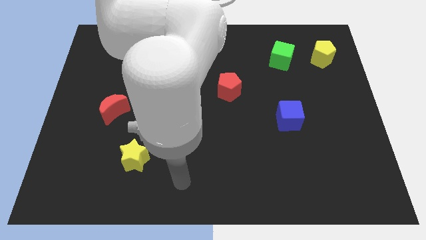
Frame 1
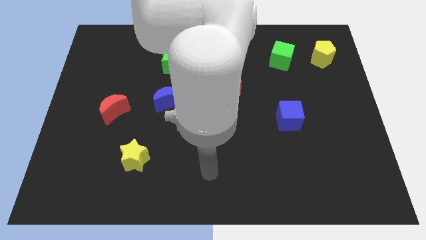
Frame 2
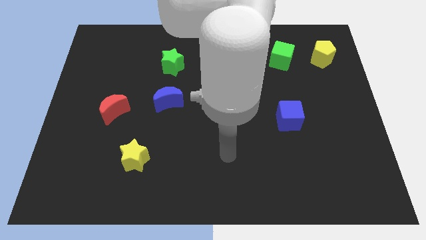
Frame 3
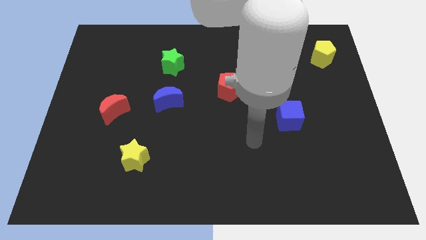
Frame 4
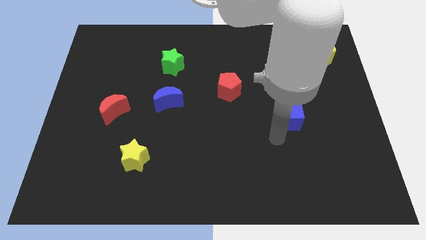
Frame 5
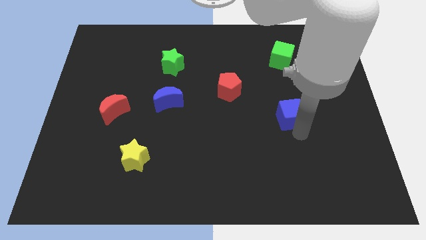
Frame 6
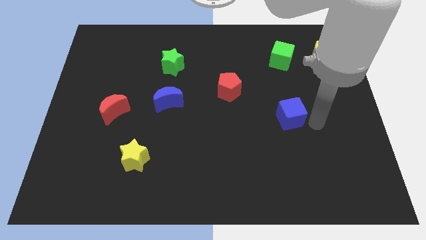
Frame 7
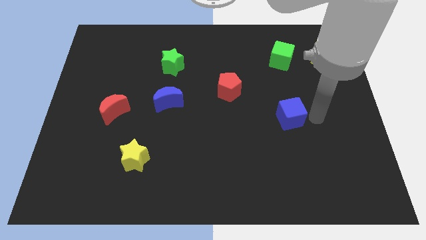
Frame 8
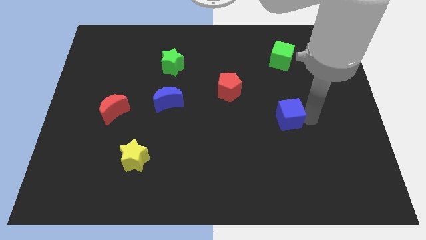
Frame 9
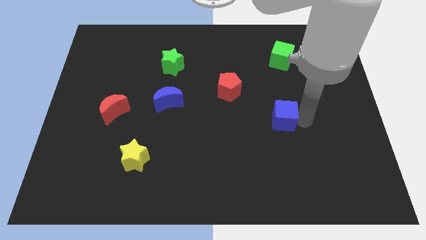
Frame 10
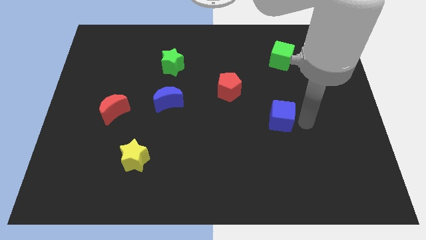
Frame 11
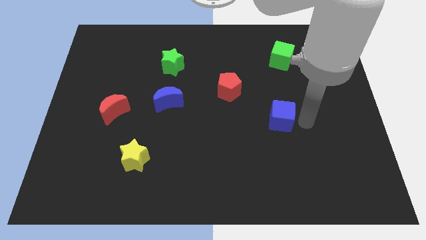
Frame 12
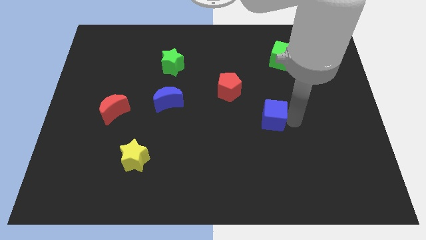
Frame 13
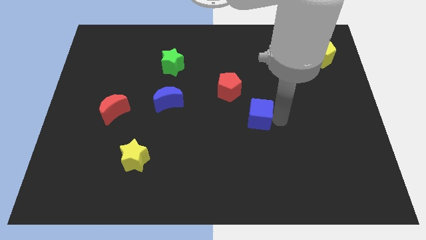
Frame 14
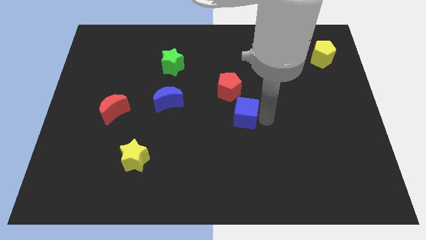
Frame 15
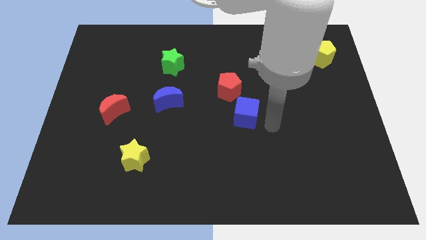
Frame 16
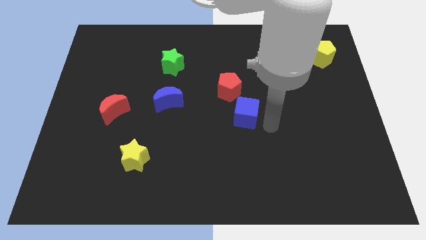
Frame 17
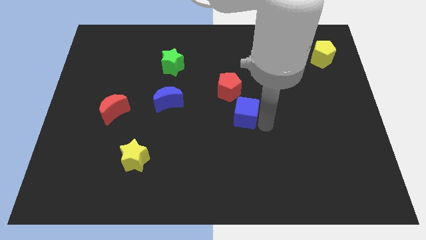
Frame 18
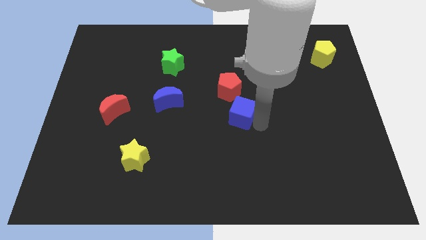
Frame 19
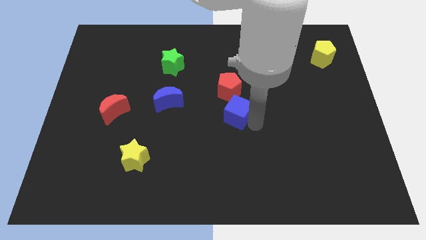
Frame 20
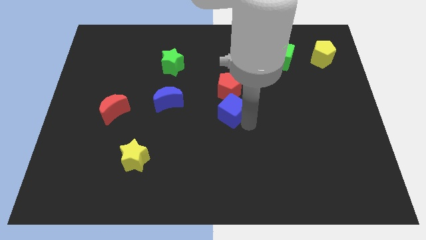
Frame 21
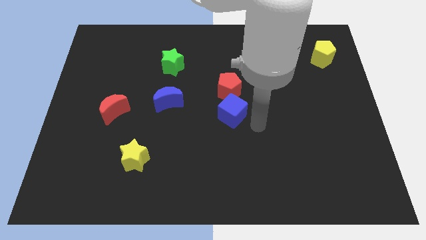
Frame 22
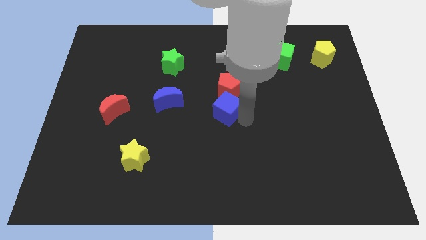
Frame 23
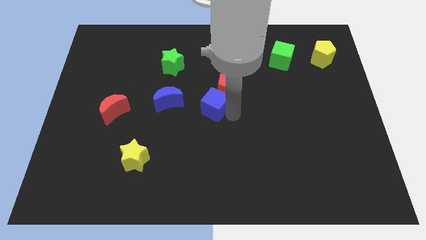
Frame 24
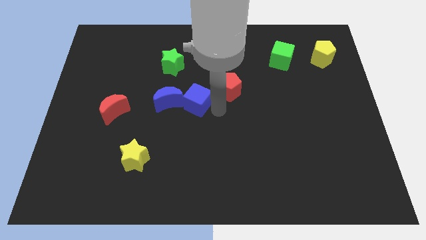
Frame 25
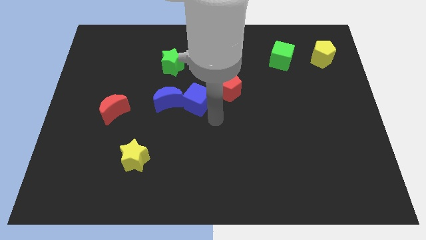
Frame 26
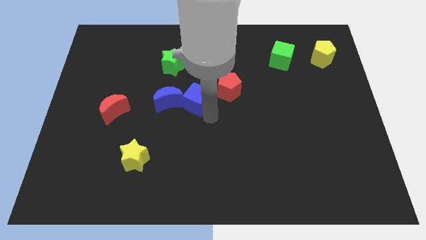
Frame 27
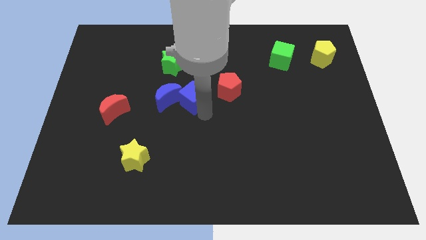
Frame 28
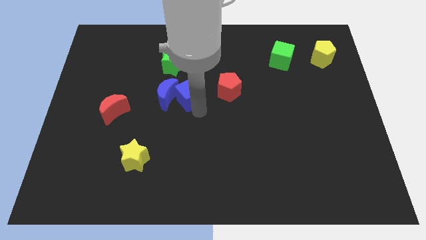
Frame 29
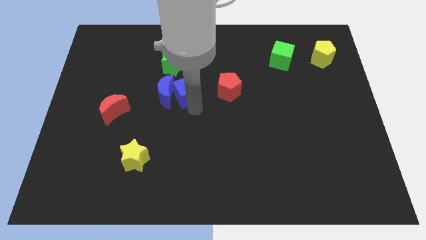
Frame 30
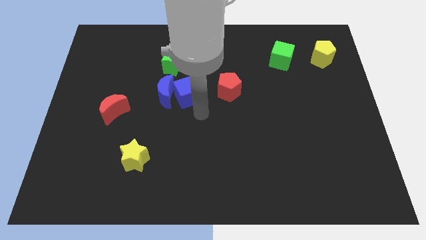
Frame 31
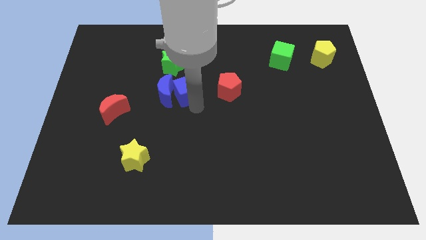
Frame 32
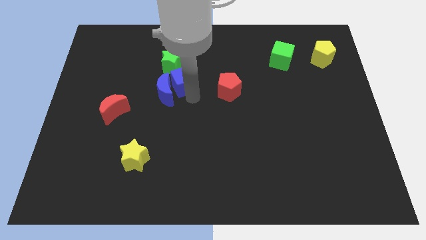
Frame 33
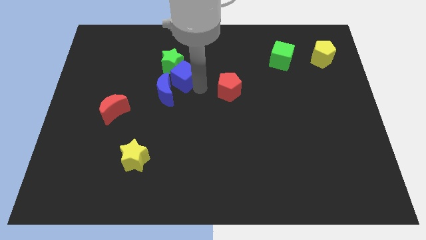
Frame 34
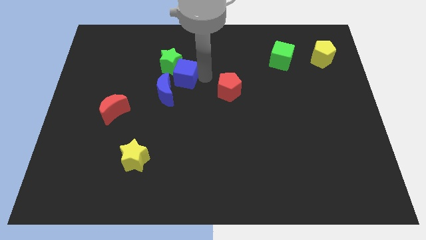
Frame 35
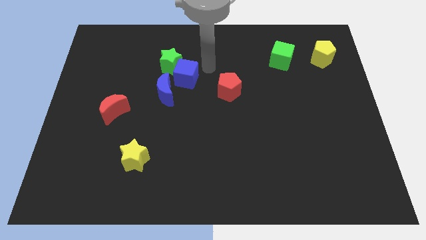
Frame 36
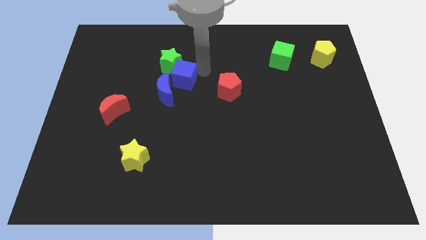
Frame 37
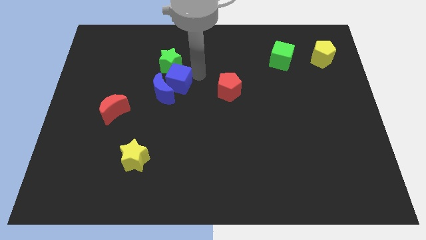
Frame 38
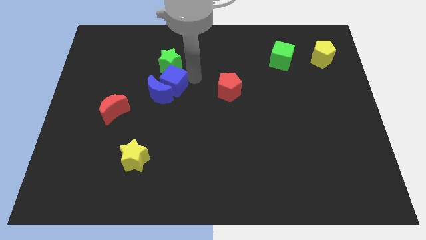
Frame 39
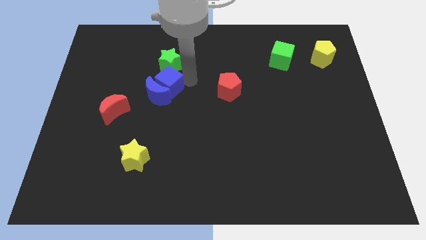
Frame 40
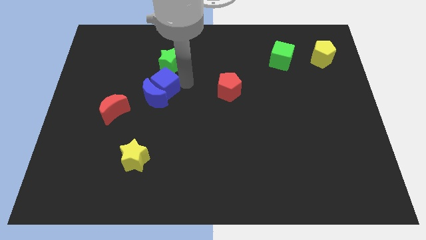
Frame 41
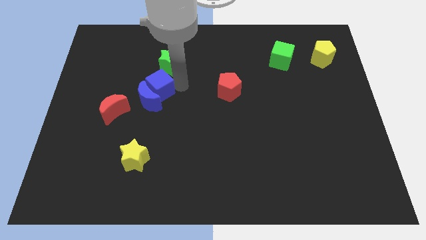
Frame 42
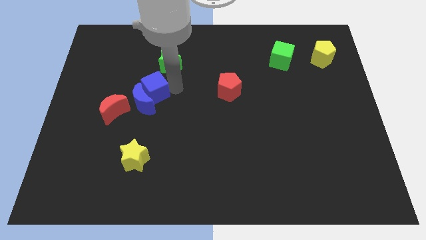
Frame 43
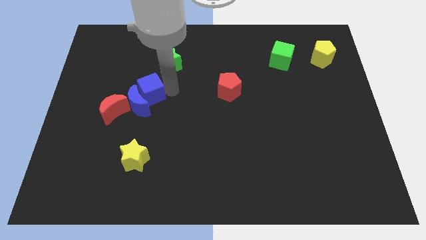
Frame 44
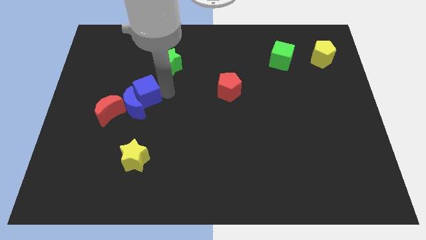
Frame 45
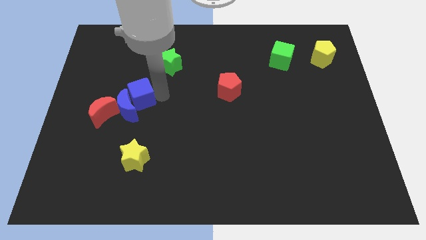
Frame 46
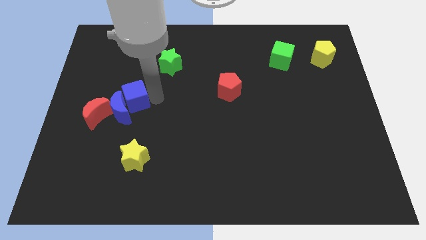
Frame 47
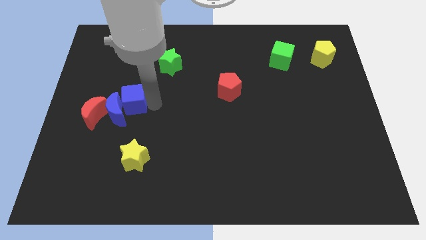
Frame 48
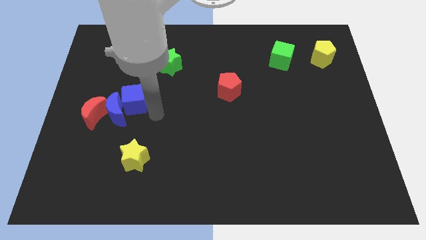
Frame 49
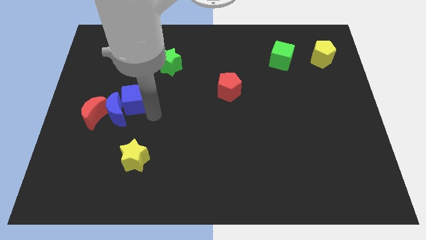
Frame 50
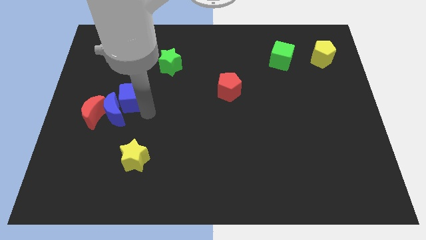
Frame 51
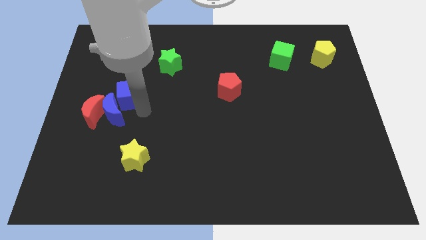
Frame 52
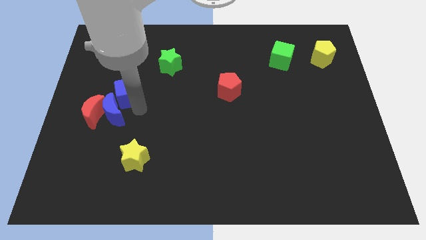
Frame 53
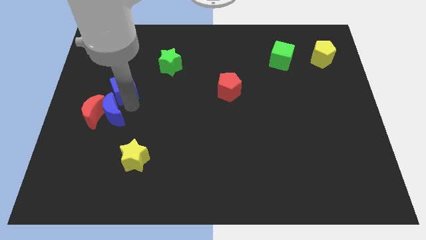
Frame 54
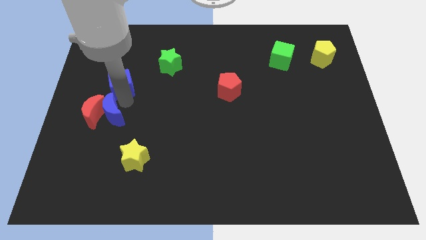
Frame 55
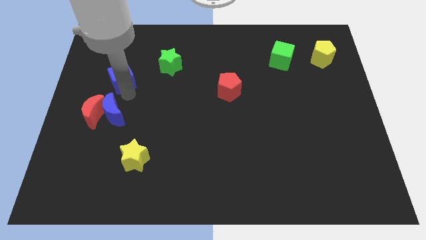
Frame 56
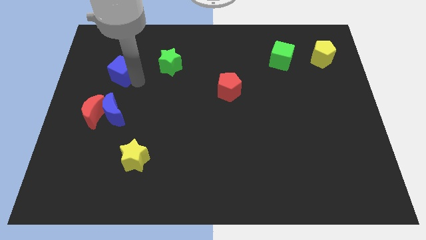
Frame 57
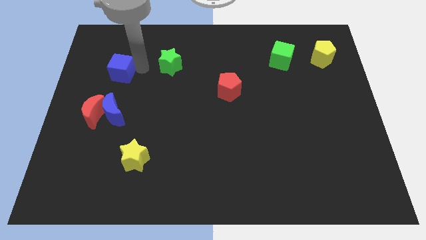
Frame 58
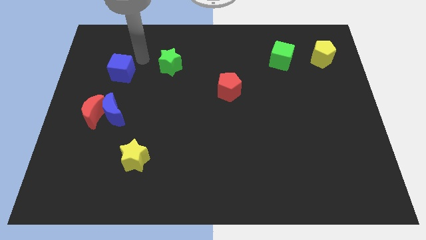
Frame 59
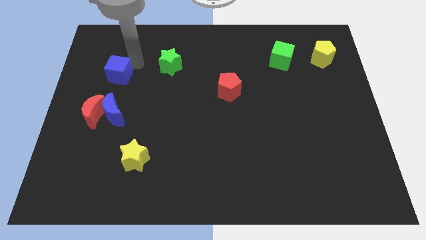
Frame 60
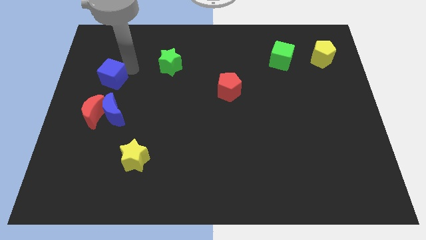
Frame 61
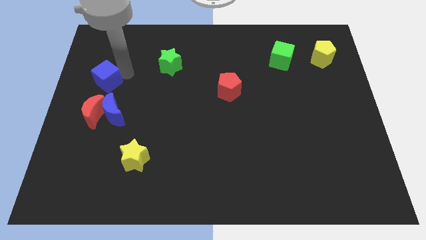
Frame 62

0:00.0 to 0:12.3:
slide the blue cube to the left side of the board
